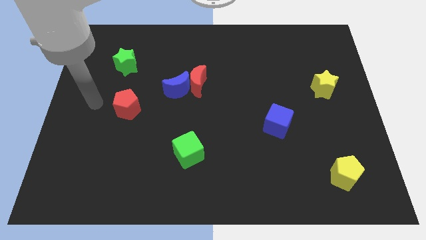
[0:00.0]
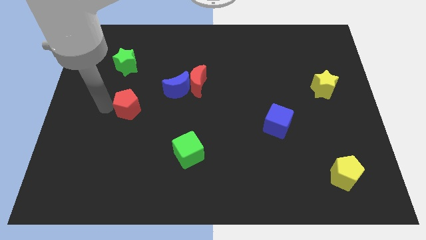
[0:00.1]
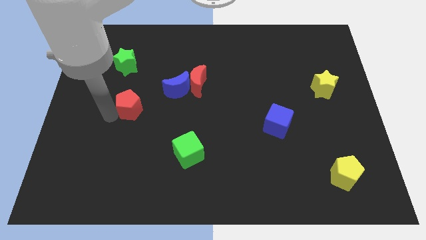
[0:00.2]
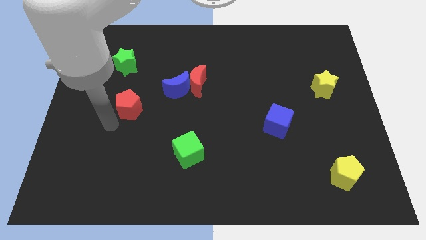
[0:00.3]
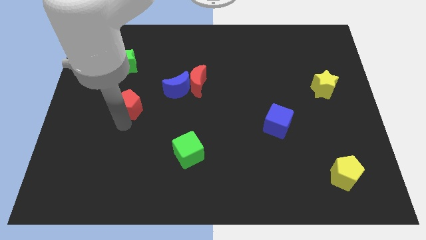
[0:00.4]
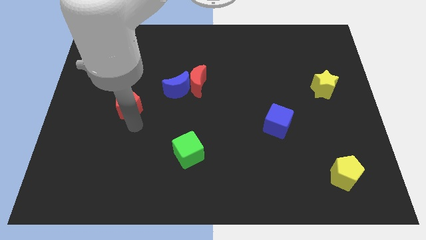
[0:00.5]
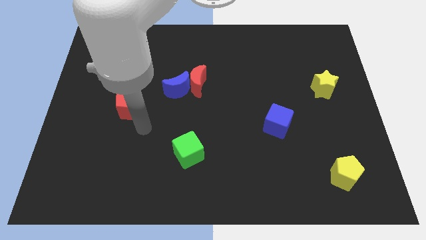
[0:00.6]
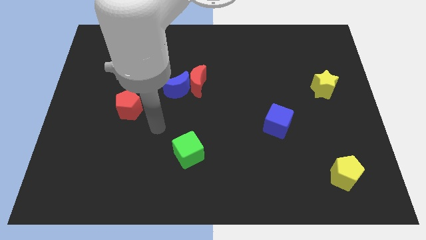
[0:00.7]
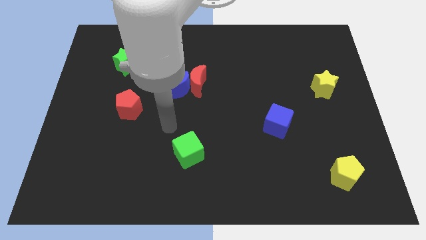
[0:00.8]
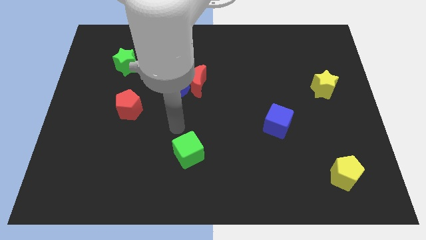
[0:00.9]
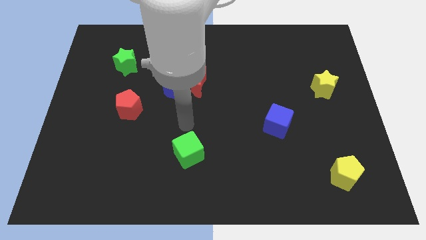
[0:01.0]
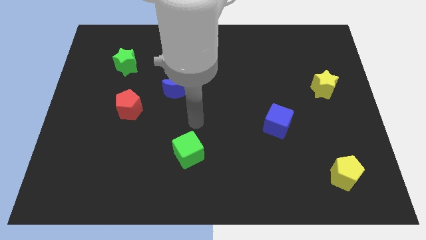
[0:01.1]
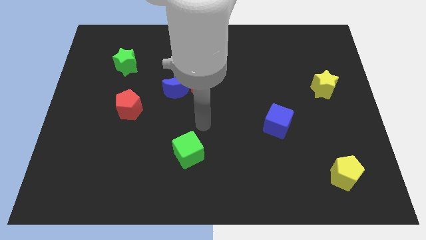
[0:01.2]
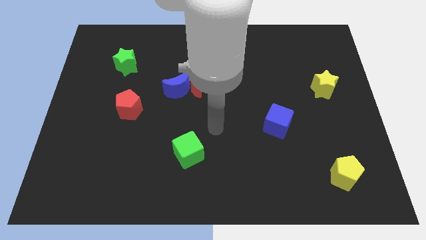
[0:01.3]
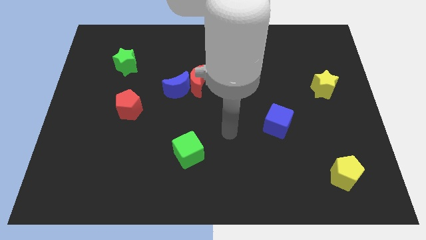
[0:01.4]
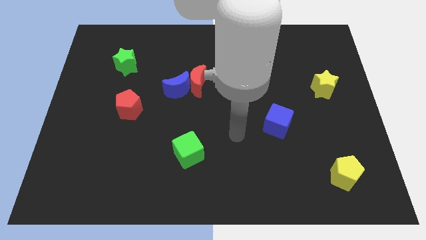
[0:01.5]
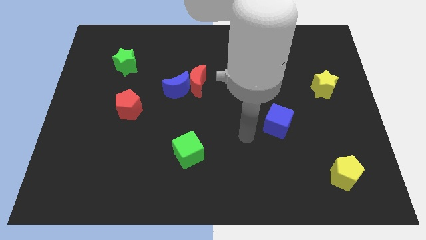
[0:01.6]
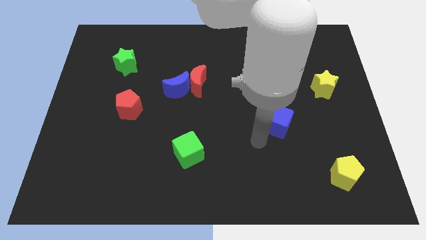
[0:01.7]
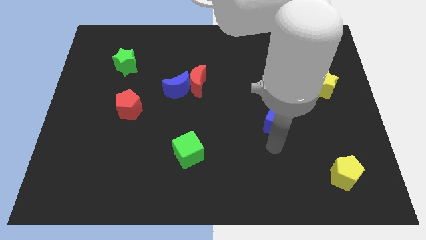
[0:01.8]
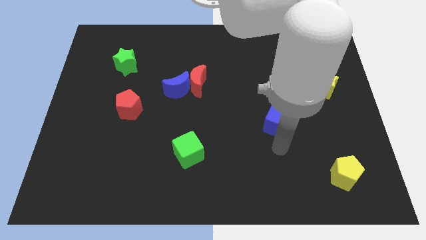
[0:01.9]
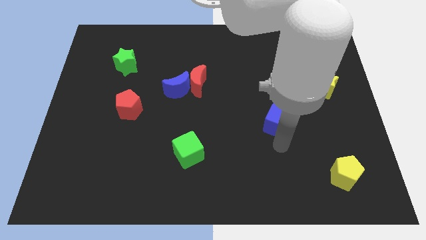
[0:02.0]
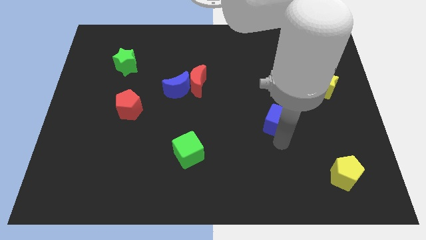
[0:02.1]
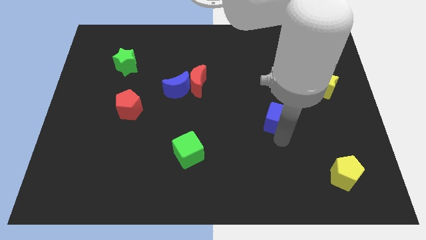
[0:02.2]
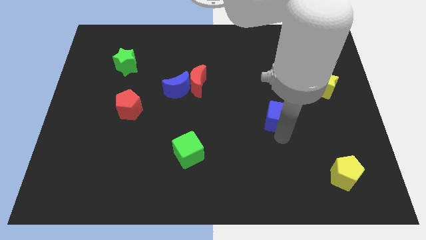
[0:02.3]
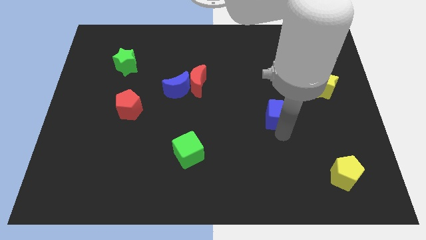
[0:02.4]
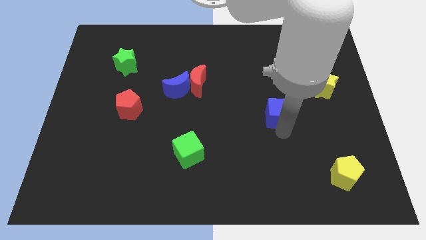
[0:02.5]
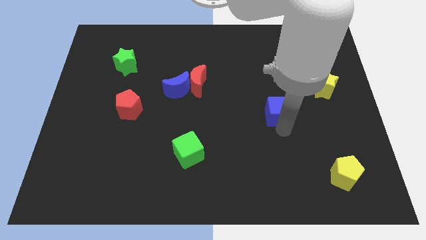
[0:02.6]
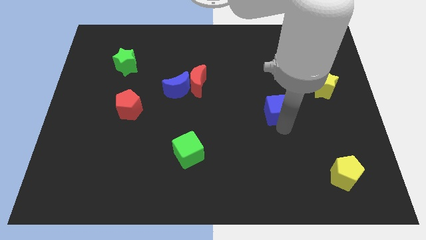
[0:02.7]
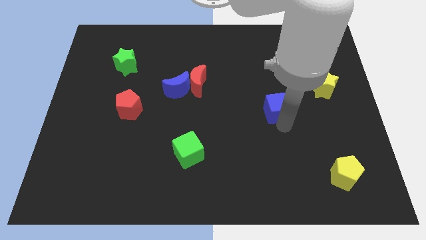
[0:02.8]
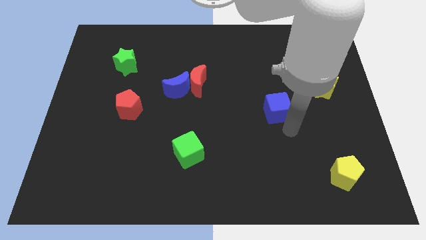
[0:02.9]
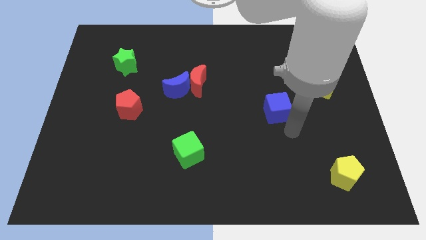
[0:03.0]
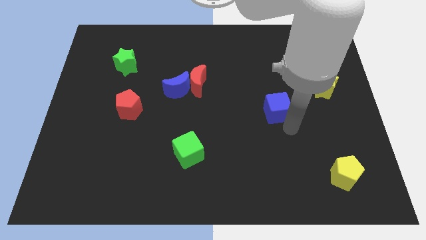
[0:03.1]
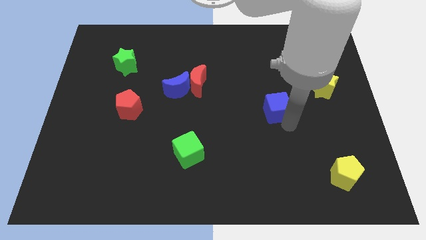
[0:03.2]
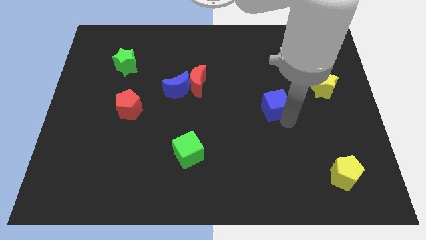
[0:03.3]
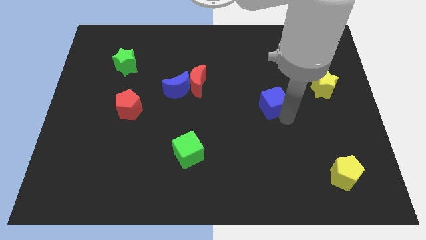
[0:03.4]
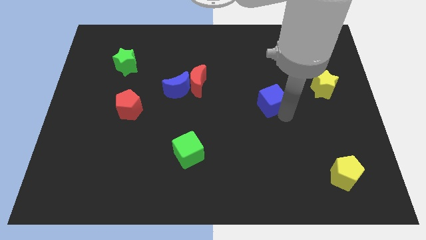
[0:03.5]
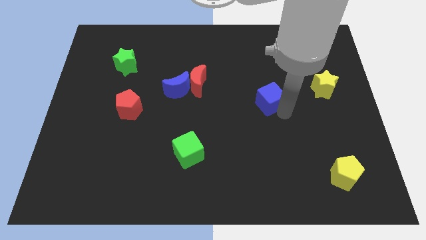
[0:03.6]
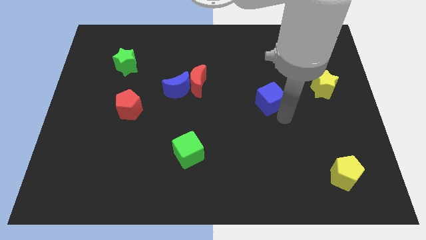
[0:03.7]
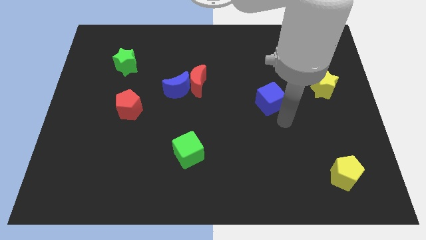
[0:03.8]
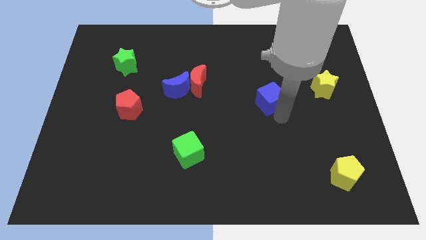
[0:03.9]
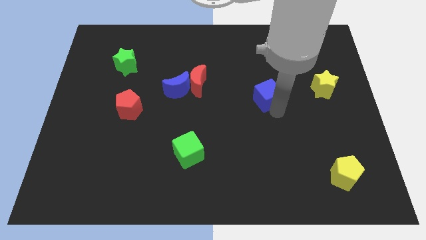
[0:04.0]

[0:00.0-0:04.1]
slightly push the blue cube upwards

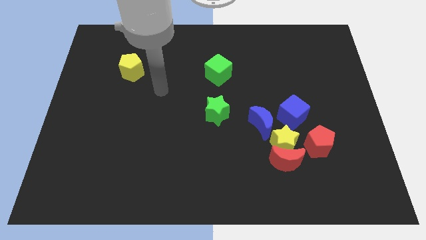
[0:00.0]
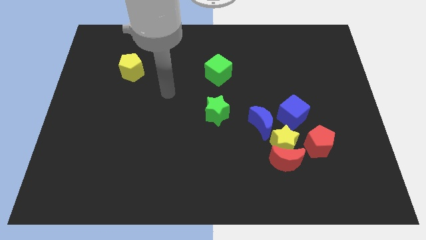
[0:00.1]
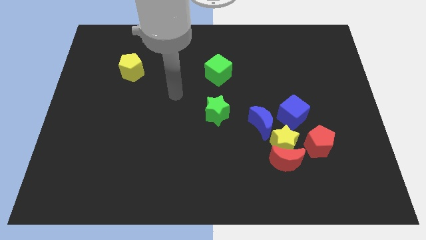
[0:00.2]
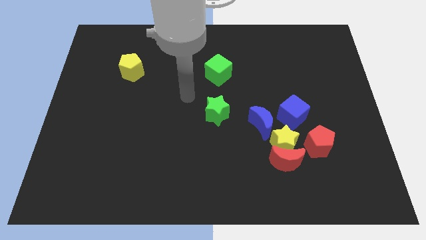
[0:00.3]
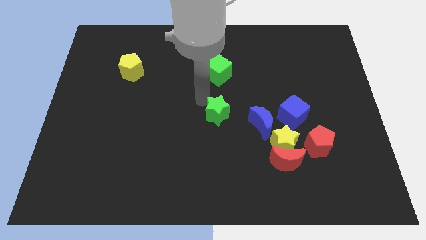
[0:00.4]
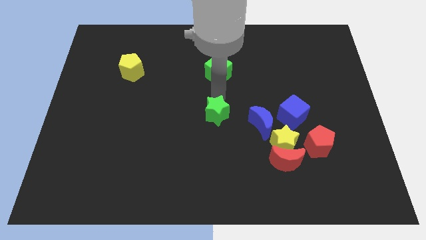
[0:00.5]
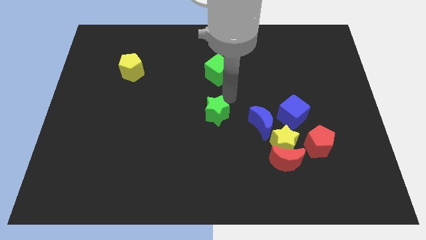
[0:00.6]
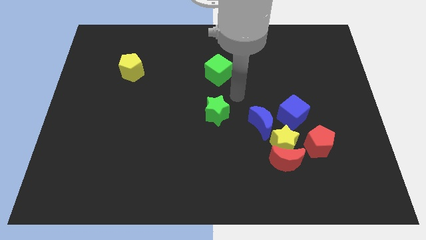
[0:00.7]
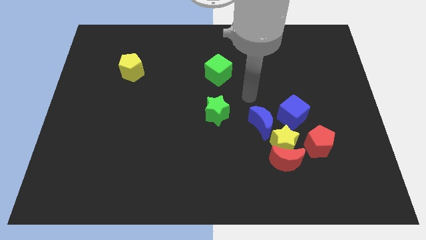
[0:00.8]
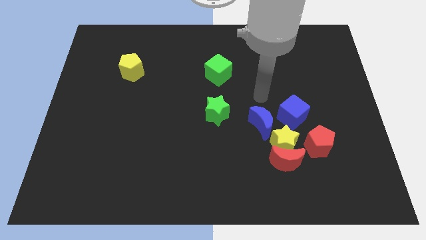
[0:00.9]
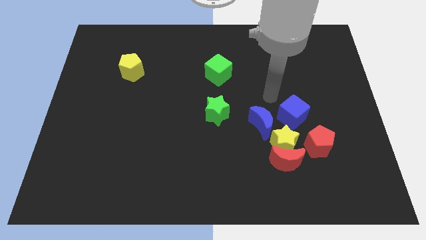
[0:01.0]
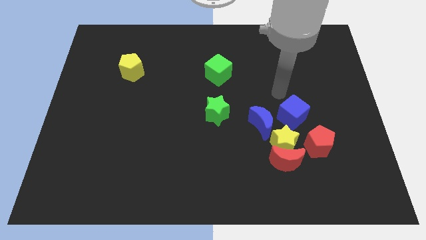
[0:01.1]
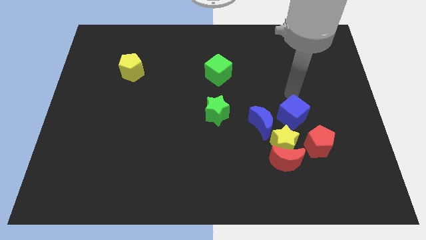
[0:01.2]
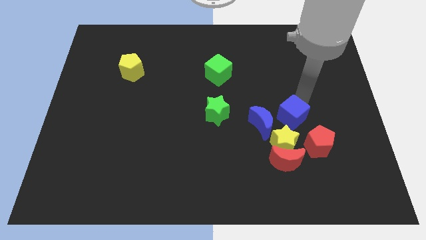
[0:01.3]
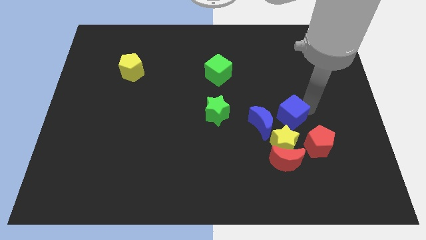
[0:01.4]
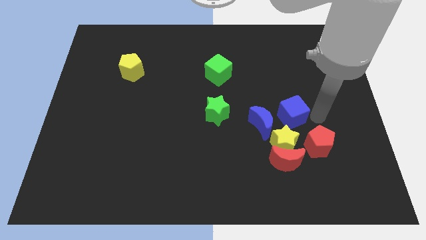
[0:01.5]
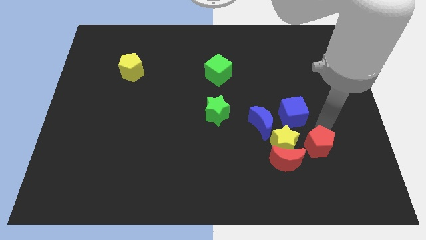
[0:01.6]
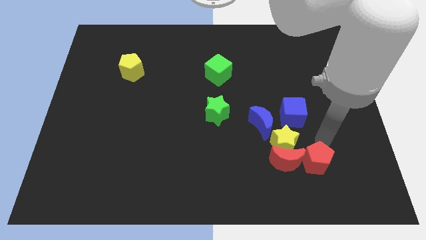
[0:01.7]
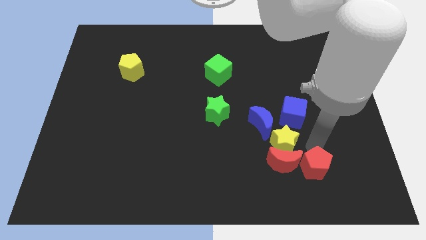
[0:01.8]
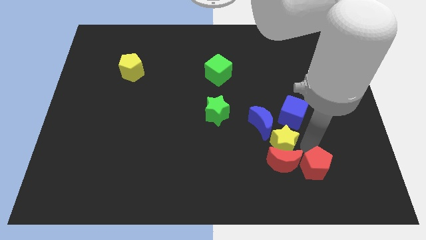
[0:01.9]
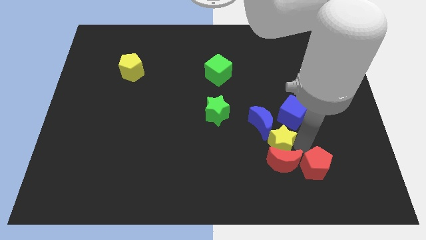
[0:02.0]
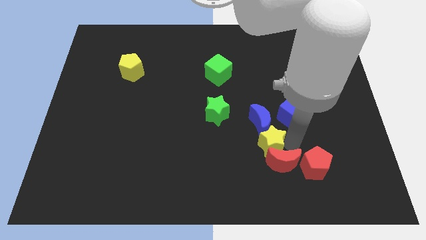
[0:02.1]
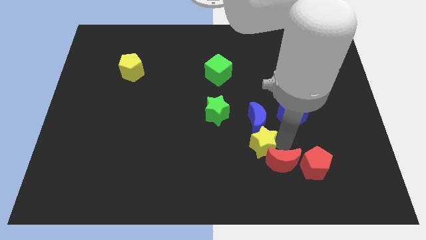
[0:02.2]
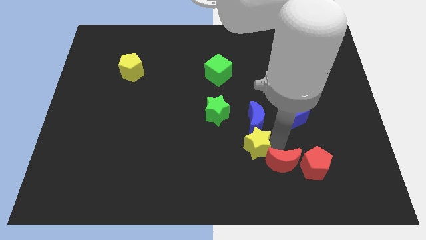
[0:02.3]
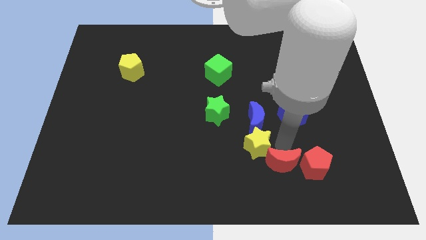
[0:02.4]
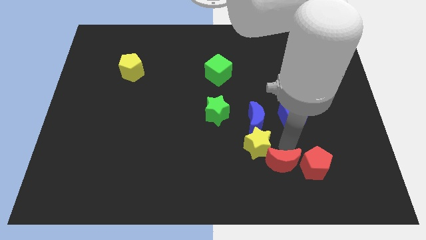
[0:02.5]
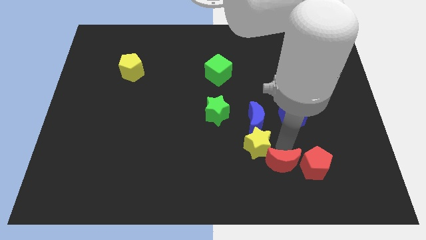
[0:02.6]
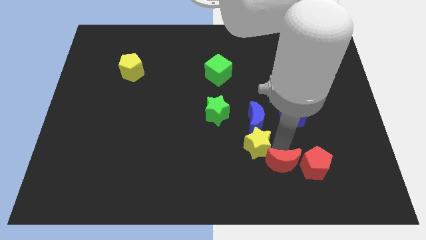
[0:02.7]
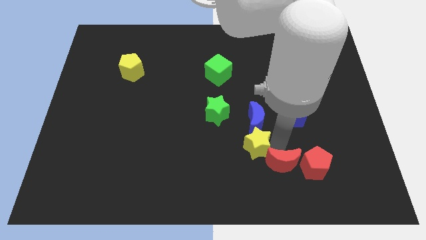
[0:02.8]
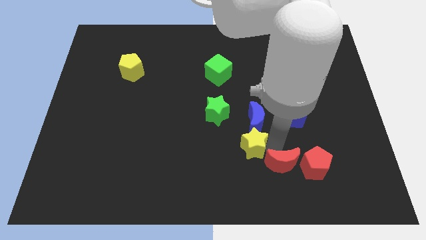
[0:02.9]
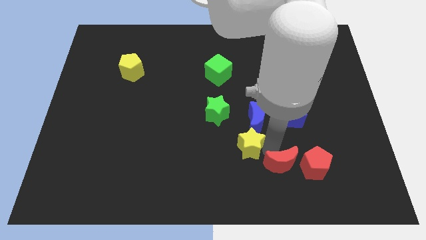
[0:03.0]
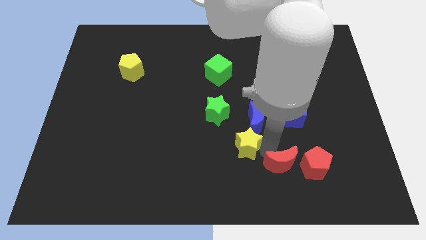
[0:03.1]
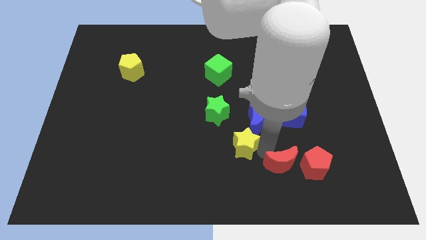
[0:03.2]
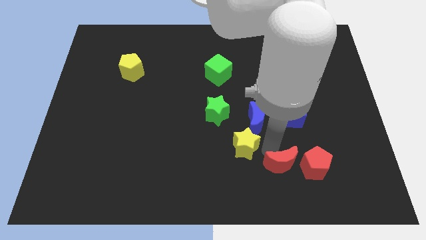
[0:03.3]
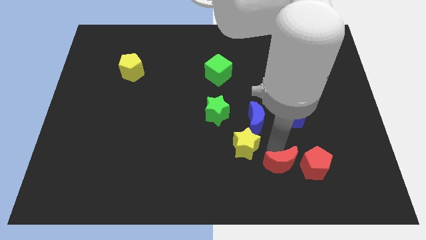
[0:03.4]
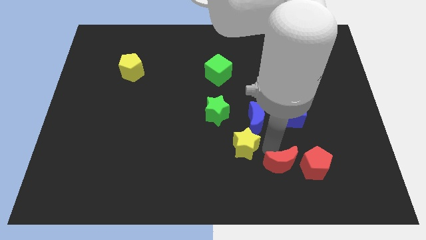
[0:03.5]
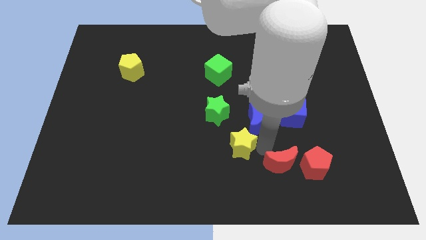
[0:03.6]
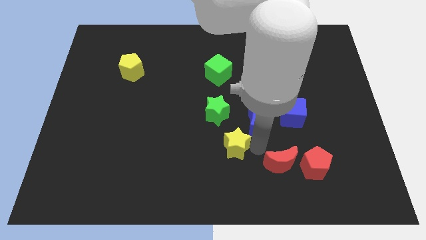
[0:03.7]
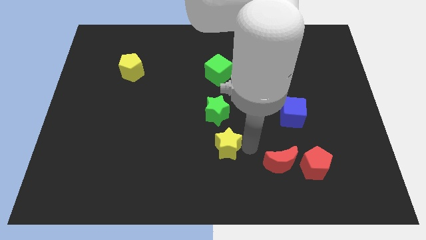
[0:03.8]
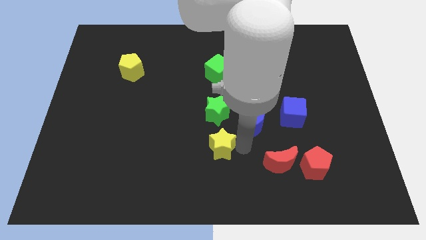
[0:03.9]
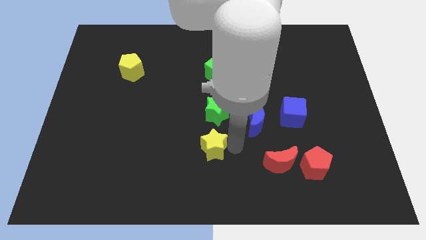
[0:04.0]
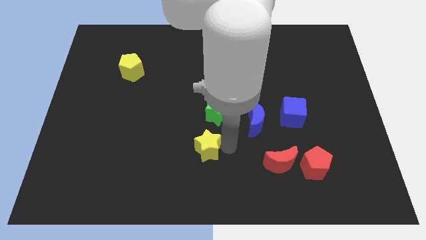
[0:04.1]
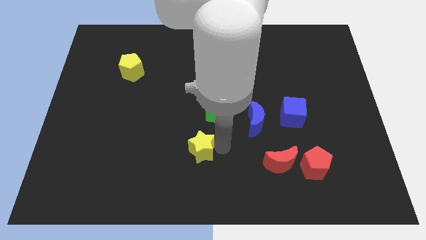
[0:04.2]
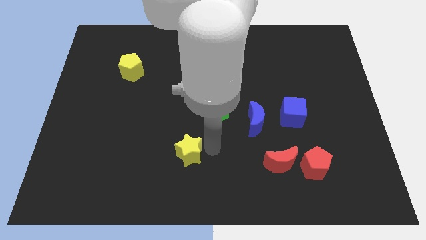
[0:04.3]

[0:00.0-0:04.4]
slide the yellow star to the left
